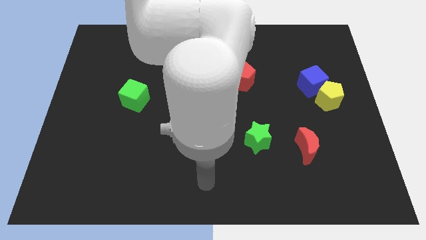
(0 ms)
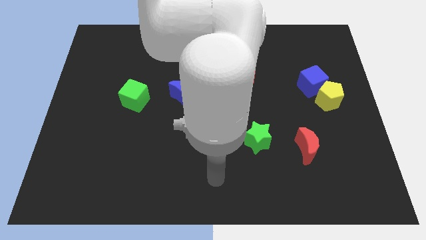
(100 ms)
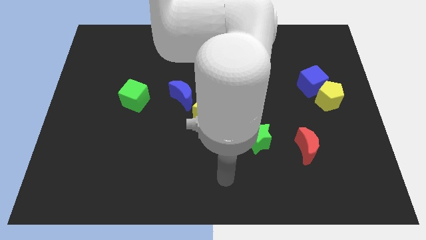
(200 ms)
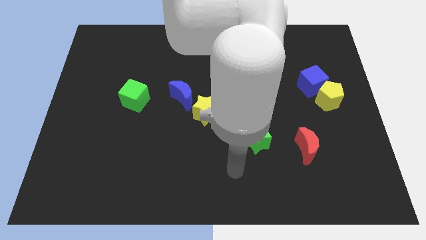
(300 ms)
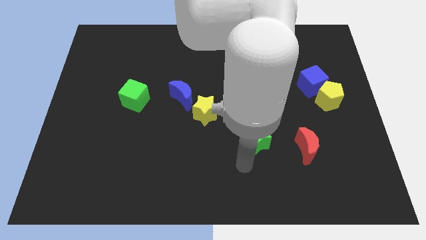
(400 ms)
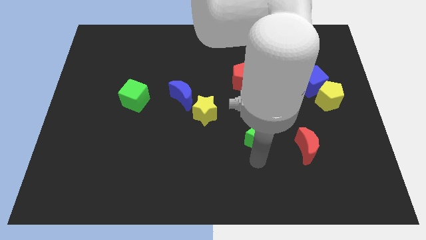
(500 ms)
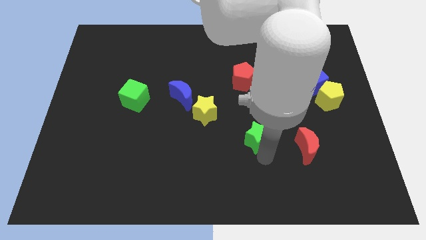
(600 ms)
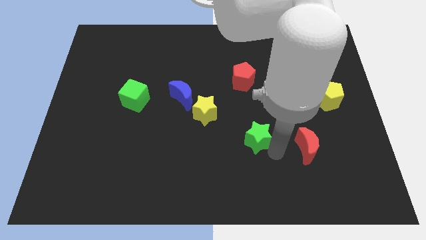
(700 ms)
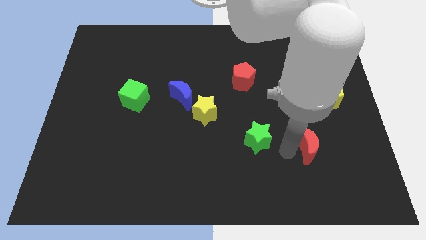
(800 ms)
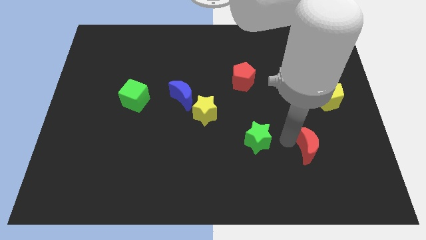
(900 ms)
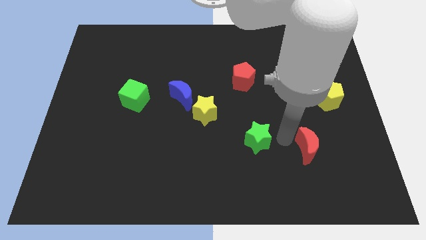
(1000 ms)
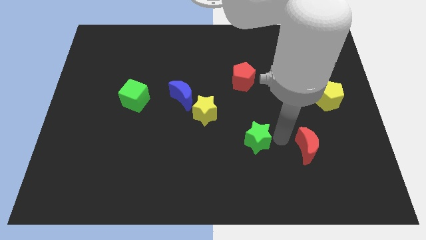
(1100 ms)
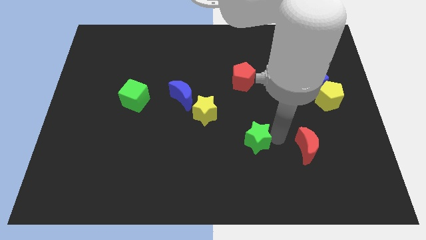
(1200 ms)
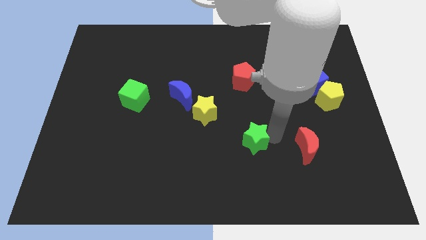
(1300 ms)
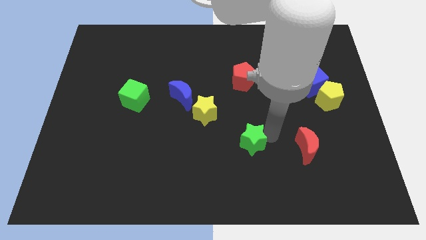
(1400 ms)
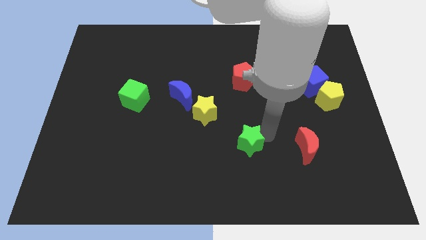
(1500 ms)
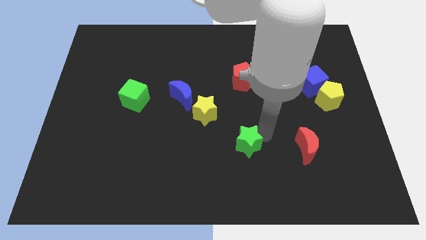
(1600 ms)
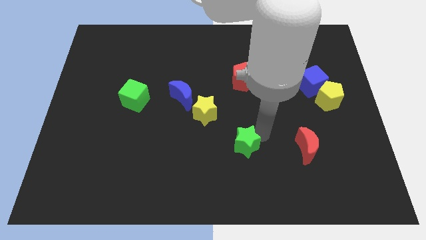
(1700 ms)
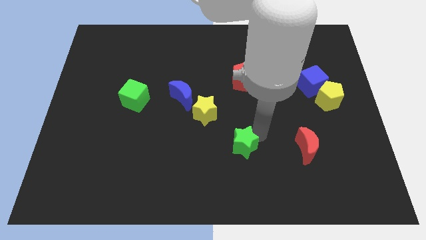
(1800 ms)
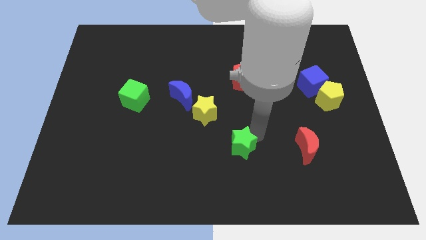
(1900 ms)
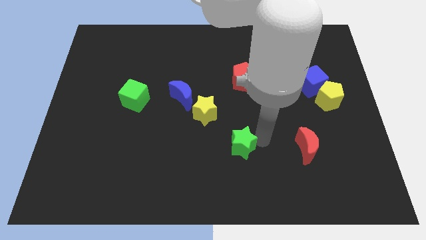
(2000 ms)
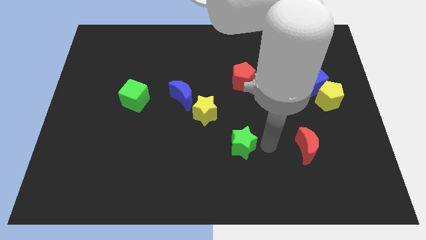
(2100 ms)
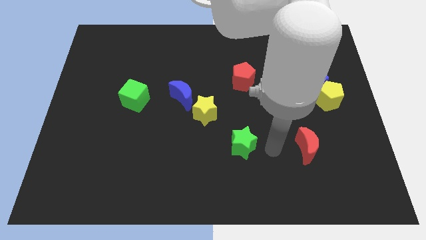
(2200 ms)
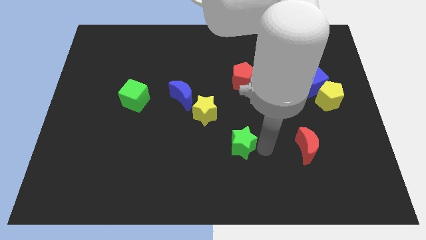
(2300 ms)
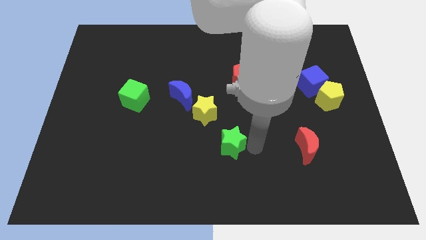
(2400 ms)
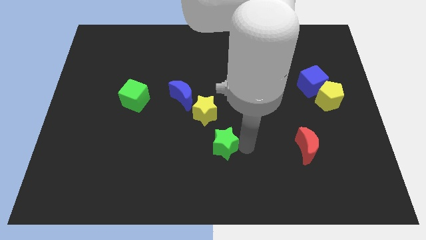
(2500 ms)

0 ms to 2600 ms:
slide the green star left somewhat

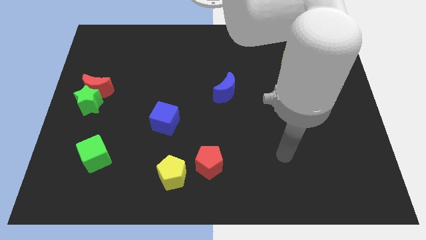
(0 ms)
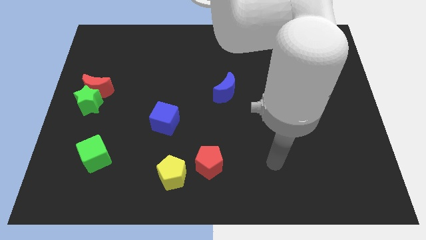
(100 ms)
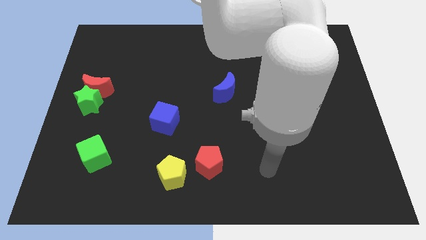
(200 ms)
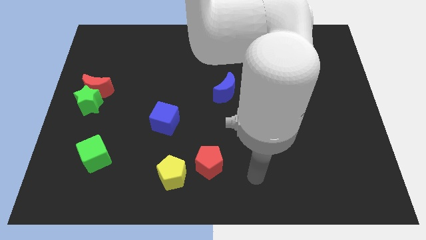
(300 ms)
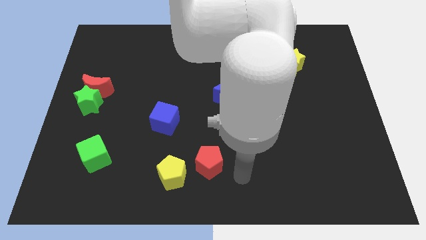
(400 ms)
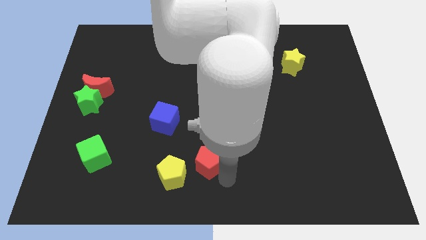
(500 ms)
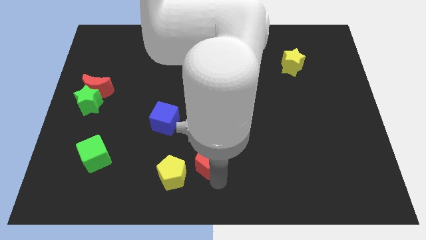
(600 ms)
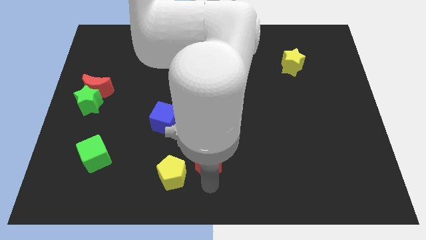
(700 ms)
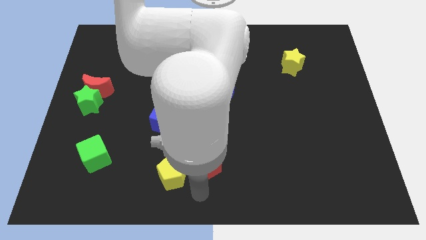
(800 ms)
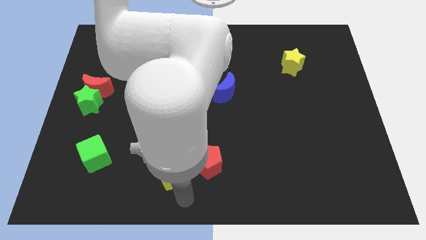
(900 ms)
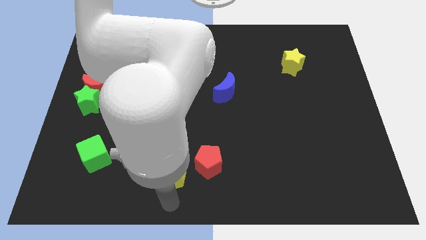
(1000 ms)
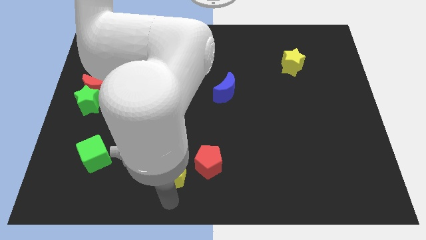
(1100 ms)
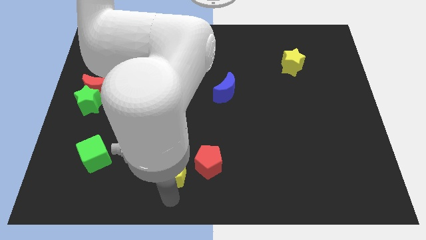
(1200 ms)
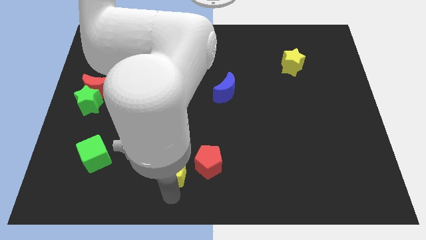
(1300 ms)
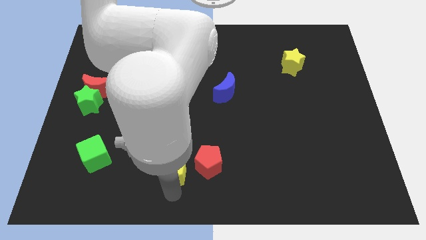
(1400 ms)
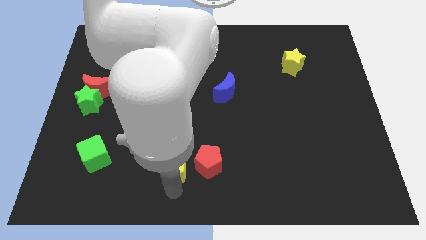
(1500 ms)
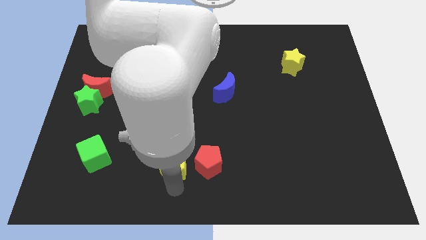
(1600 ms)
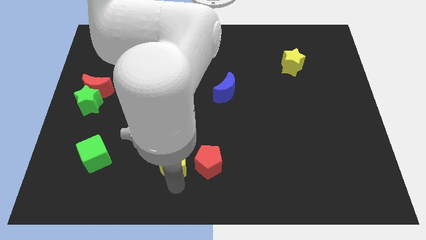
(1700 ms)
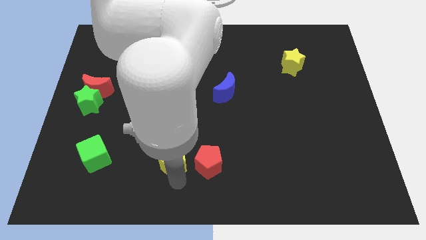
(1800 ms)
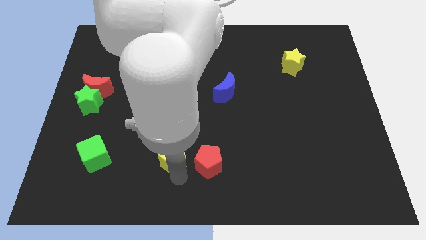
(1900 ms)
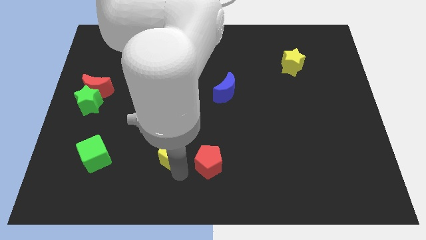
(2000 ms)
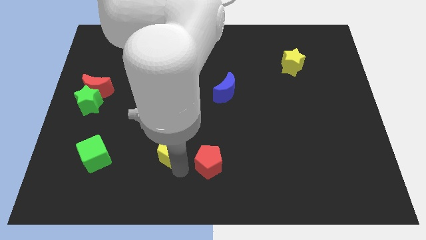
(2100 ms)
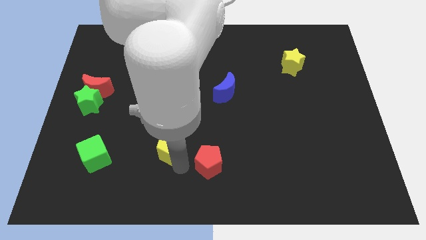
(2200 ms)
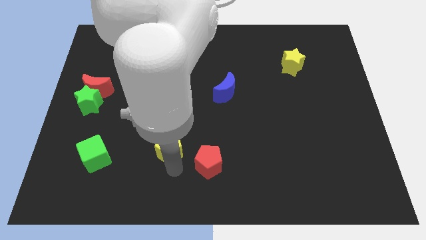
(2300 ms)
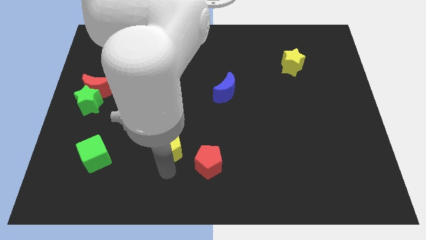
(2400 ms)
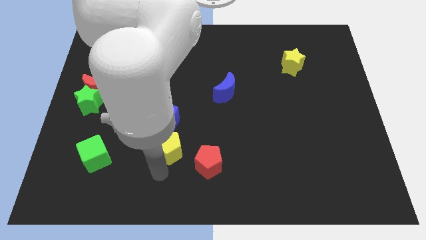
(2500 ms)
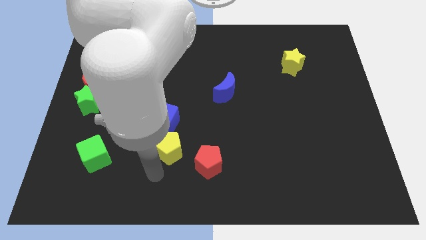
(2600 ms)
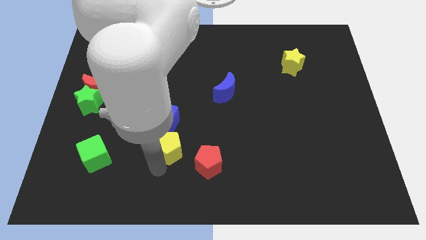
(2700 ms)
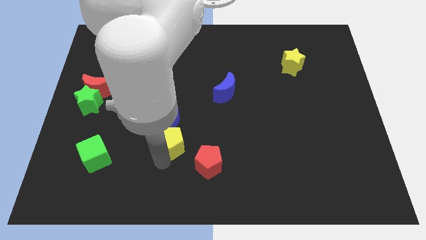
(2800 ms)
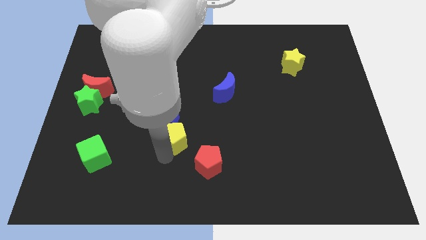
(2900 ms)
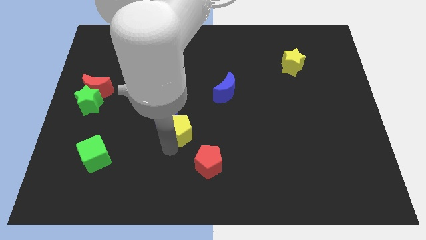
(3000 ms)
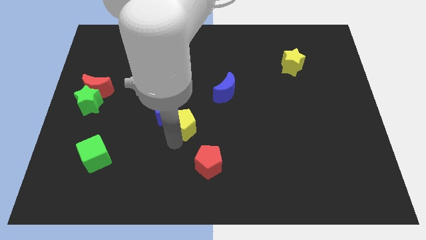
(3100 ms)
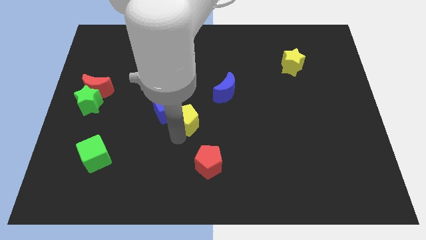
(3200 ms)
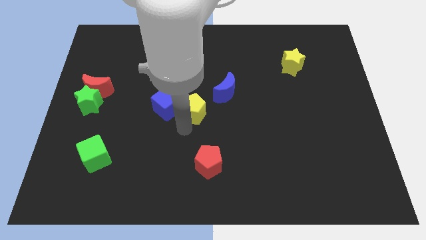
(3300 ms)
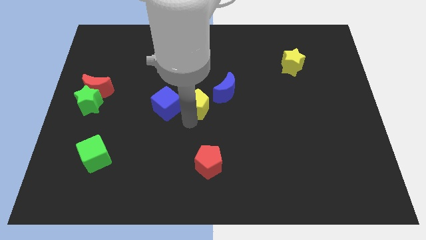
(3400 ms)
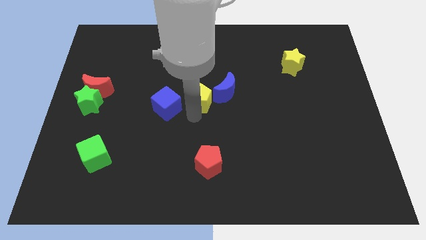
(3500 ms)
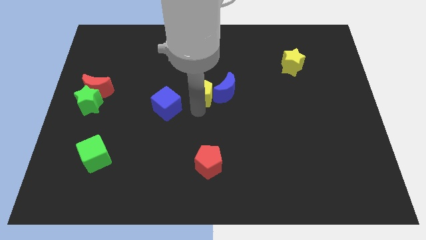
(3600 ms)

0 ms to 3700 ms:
push the yellow pentagon up

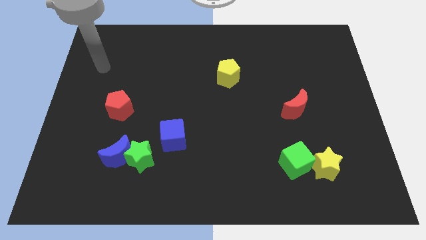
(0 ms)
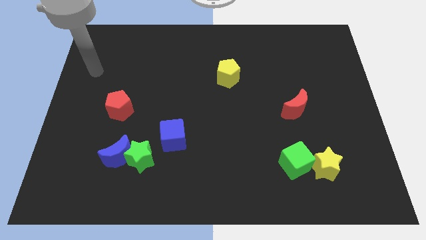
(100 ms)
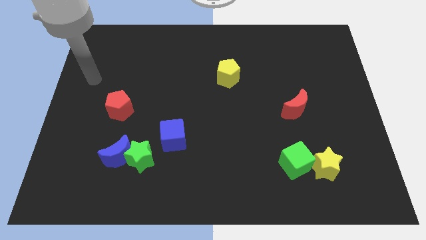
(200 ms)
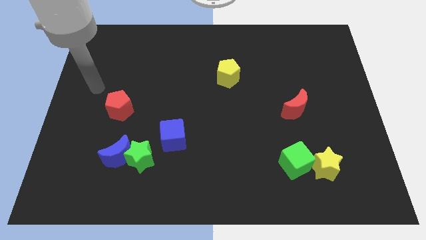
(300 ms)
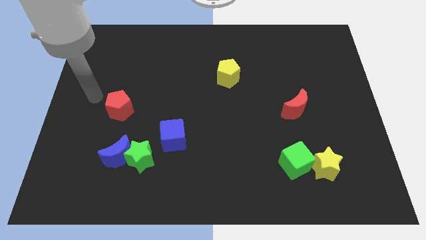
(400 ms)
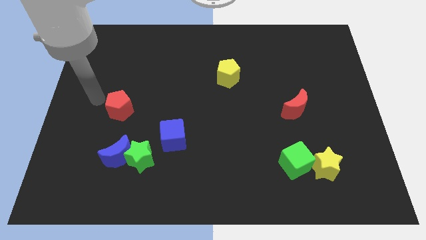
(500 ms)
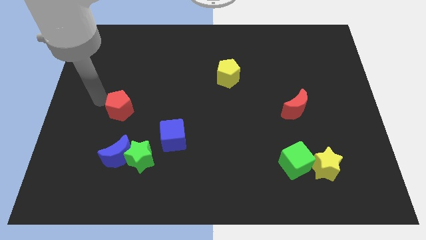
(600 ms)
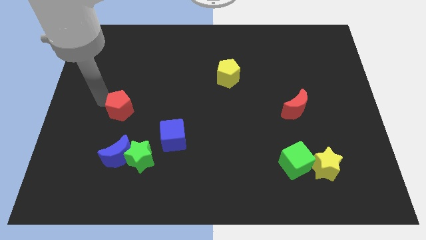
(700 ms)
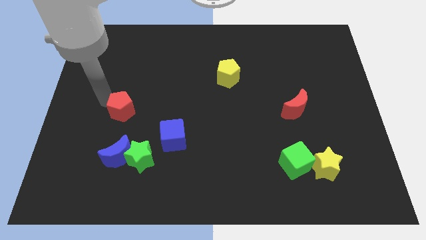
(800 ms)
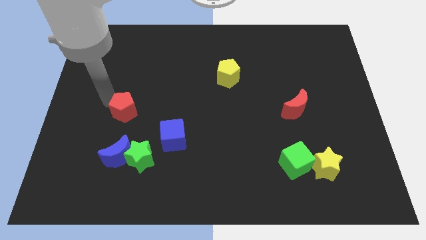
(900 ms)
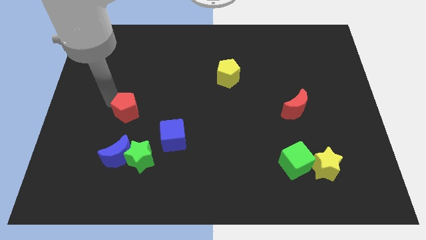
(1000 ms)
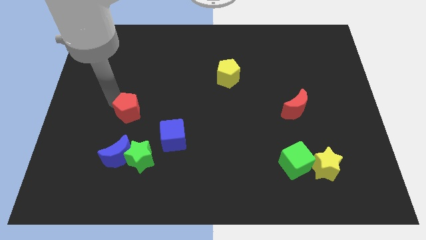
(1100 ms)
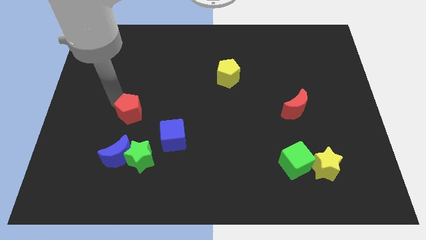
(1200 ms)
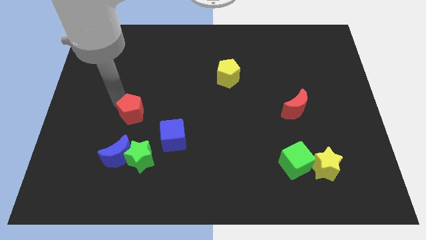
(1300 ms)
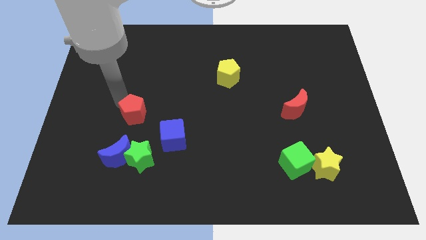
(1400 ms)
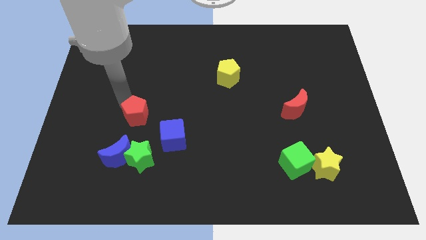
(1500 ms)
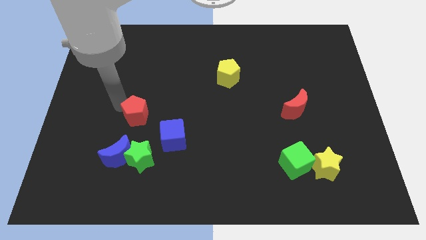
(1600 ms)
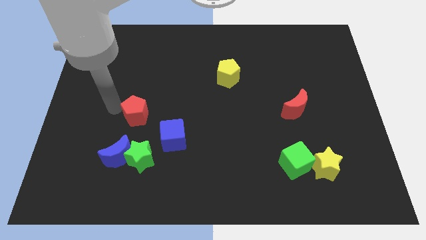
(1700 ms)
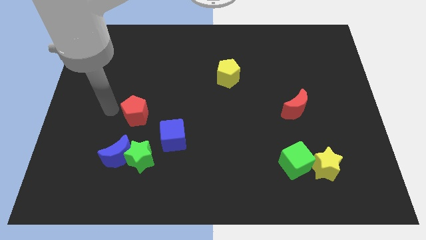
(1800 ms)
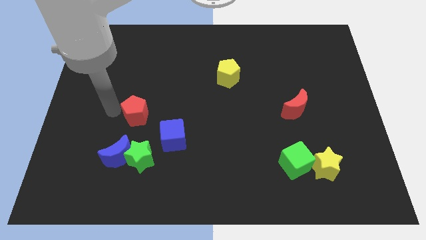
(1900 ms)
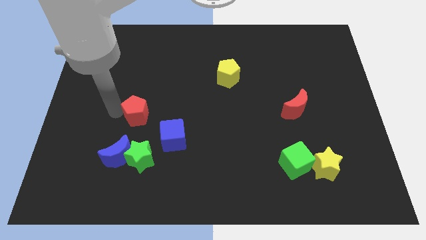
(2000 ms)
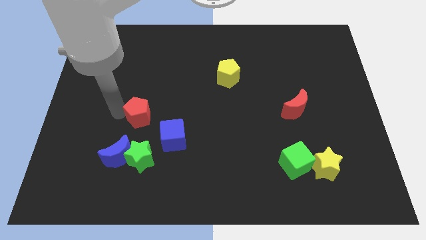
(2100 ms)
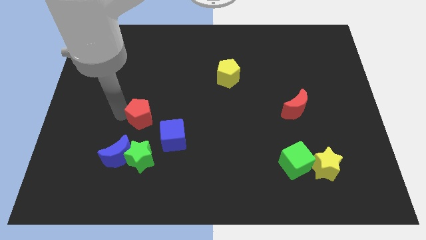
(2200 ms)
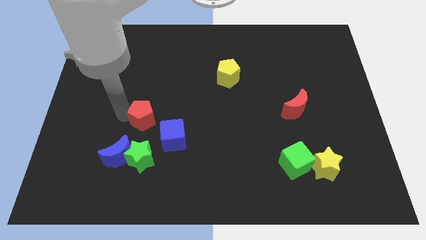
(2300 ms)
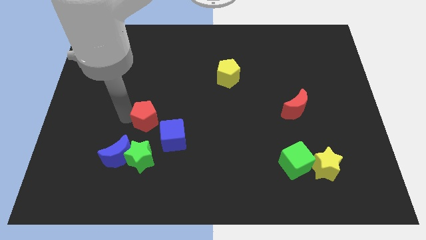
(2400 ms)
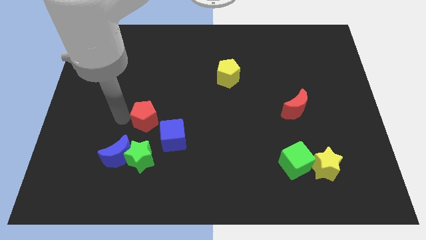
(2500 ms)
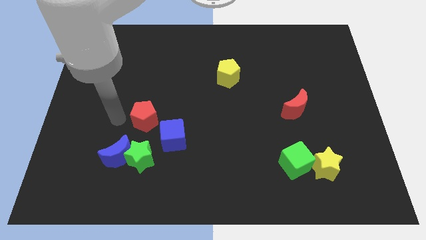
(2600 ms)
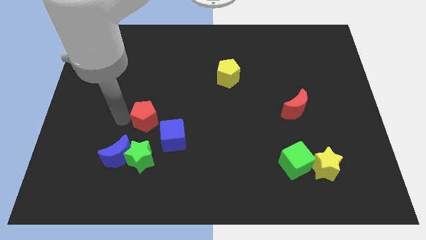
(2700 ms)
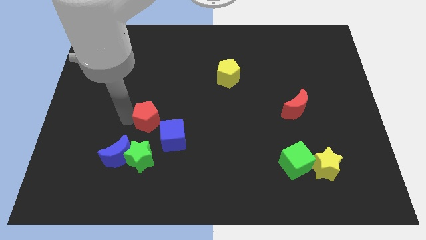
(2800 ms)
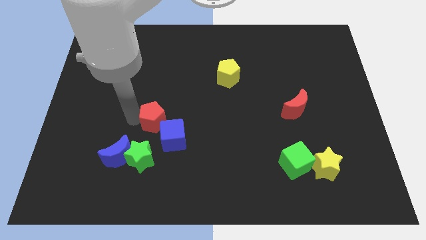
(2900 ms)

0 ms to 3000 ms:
slightly slide the red pentagon to the right
